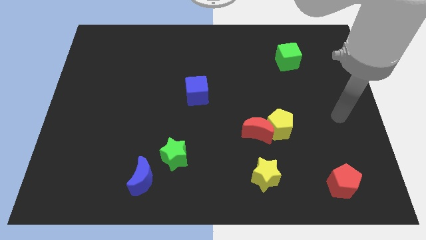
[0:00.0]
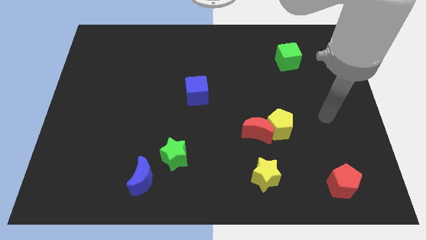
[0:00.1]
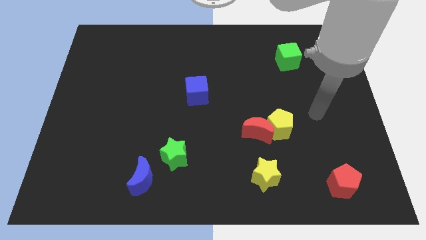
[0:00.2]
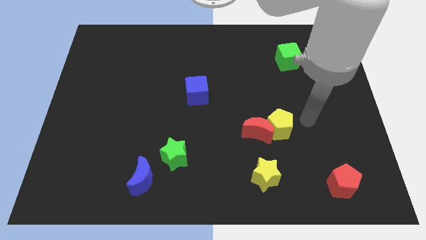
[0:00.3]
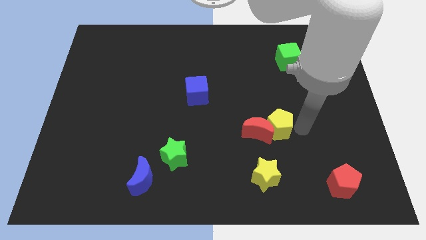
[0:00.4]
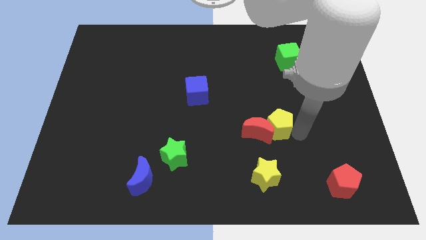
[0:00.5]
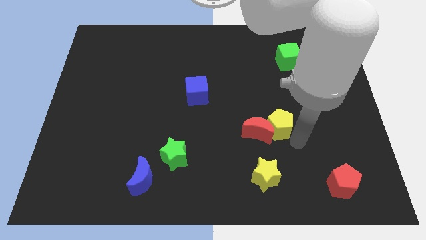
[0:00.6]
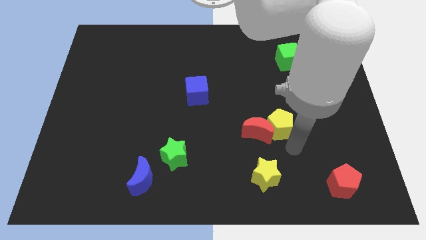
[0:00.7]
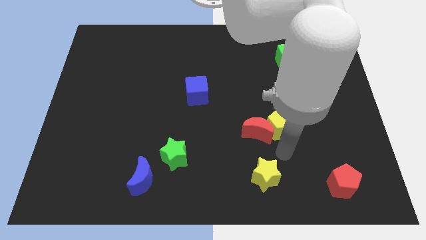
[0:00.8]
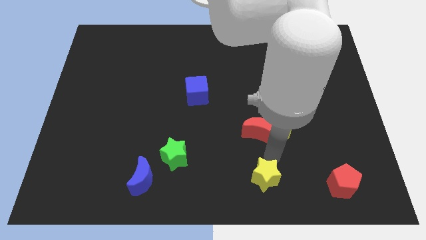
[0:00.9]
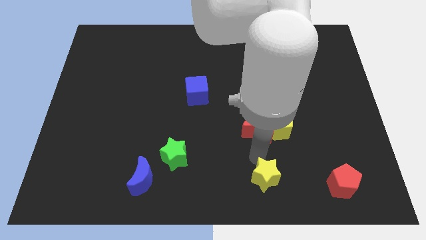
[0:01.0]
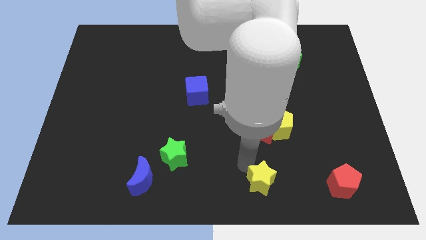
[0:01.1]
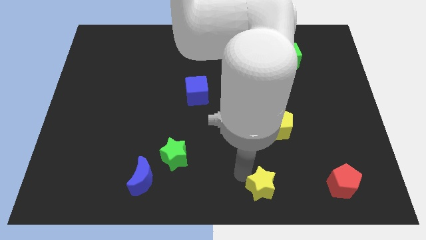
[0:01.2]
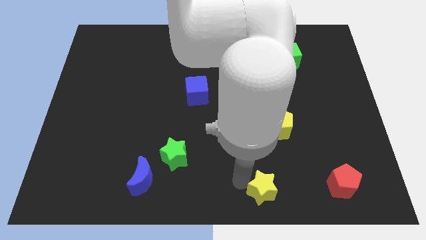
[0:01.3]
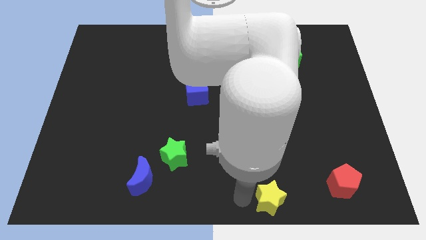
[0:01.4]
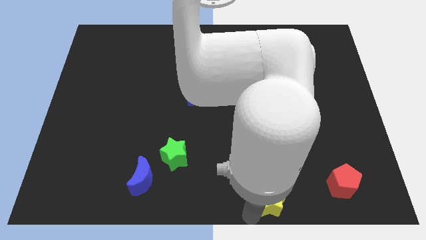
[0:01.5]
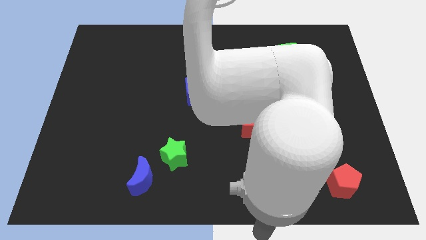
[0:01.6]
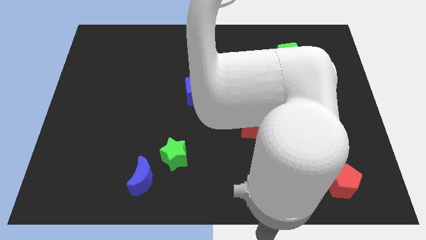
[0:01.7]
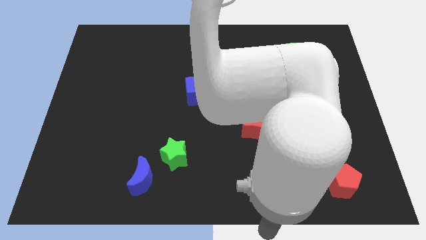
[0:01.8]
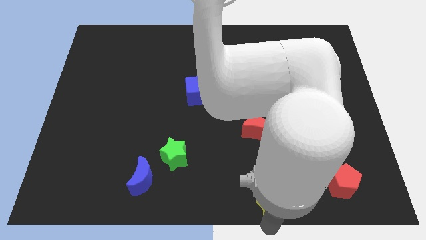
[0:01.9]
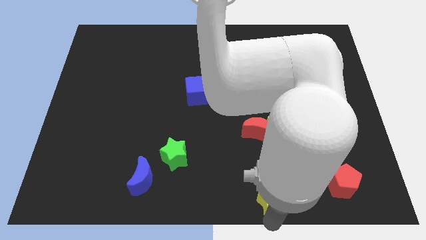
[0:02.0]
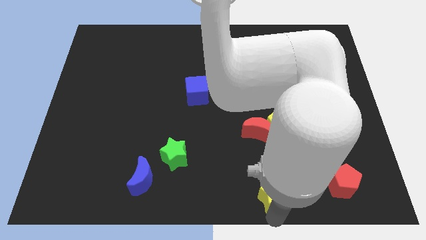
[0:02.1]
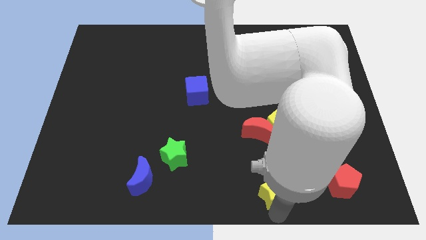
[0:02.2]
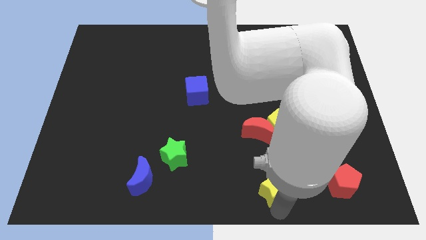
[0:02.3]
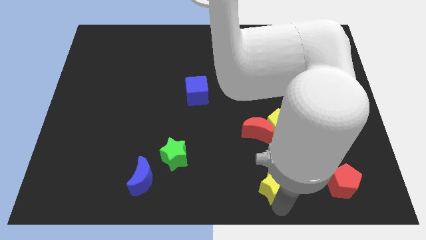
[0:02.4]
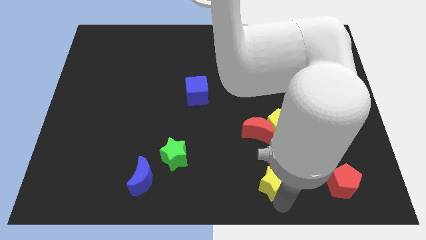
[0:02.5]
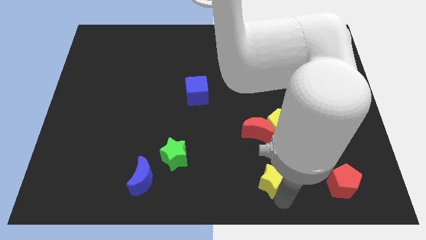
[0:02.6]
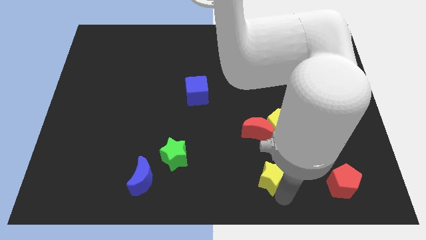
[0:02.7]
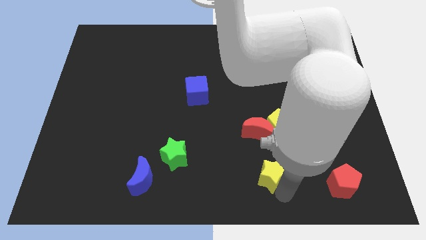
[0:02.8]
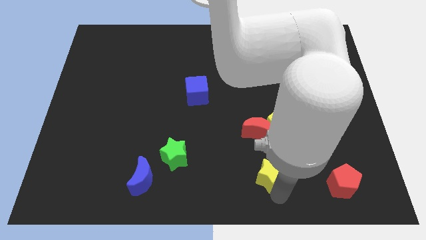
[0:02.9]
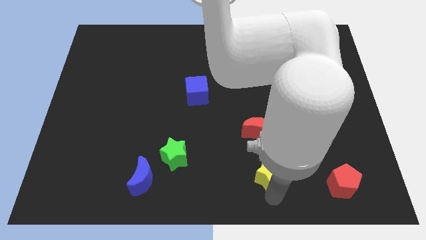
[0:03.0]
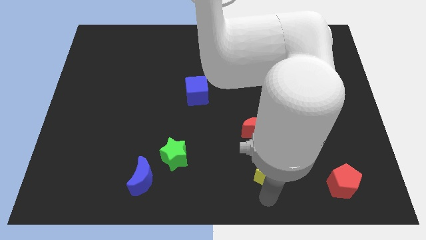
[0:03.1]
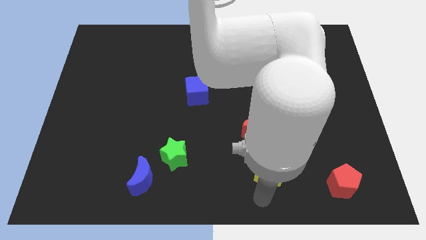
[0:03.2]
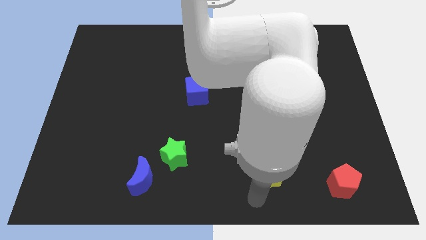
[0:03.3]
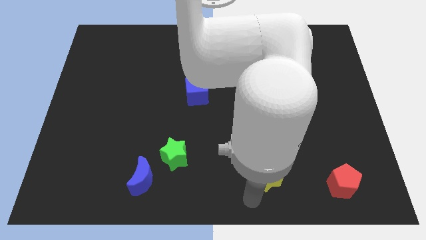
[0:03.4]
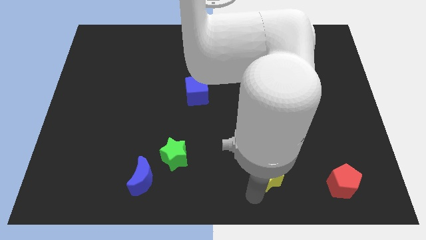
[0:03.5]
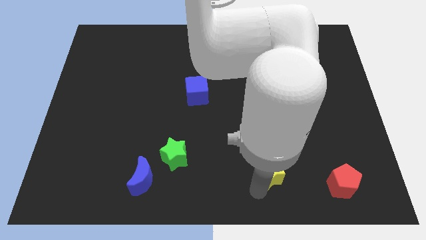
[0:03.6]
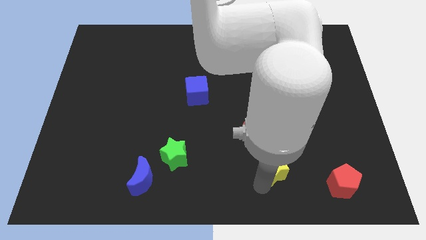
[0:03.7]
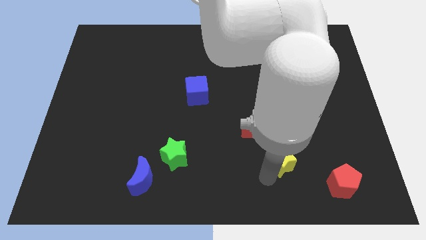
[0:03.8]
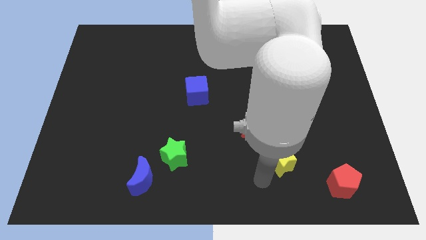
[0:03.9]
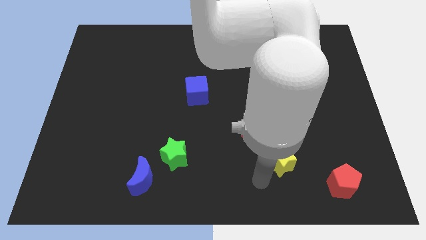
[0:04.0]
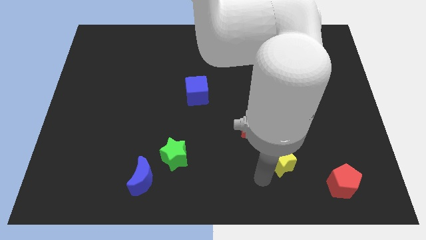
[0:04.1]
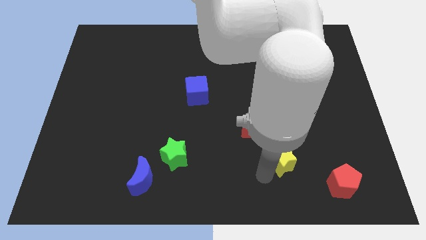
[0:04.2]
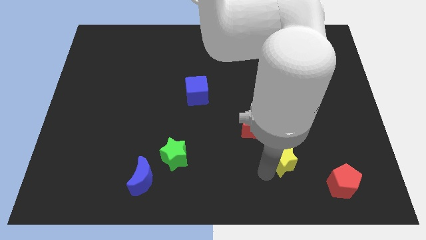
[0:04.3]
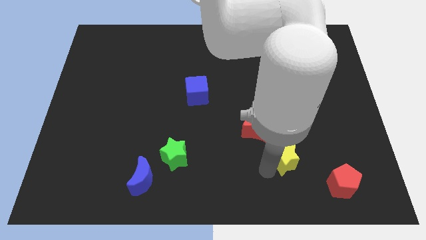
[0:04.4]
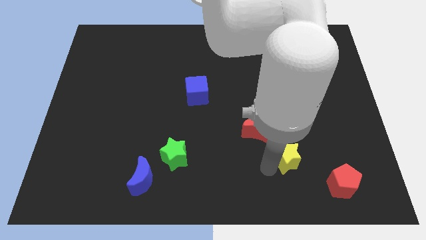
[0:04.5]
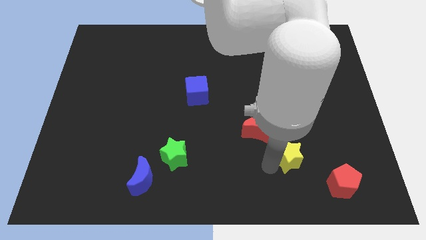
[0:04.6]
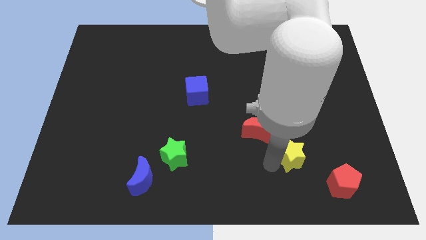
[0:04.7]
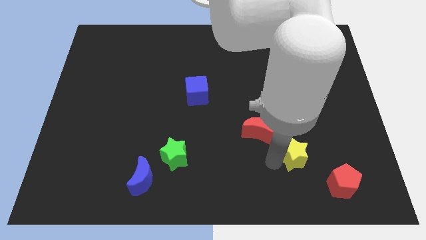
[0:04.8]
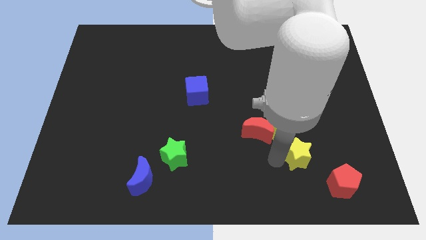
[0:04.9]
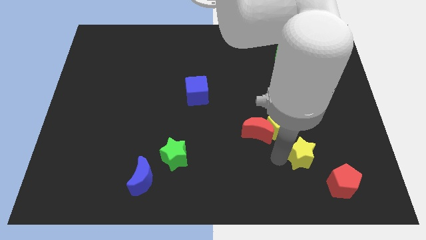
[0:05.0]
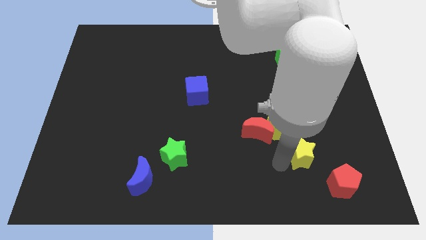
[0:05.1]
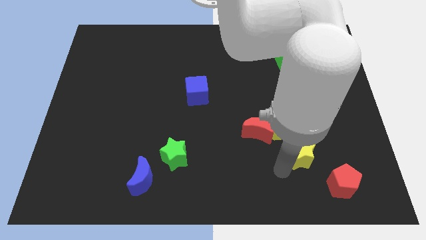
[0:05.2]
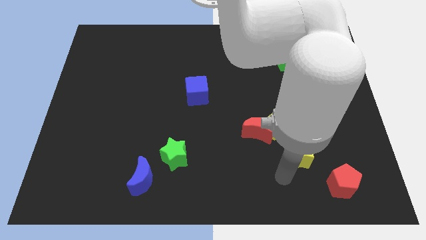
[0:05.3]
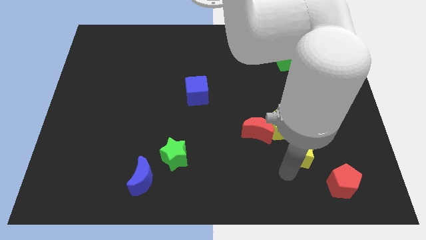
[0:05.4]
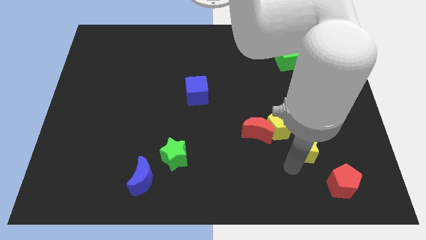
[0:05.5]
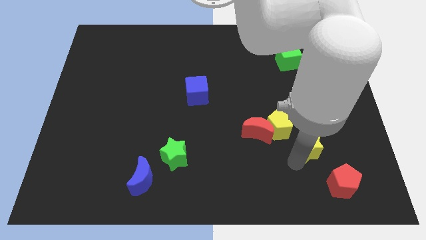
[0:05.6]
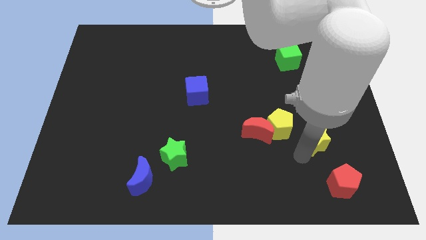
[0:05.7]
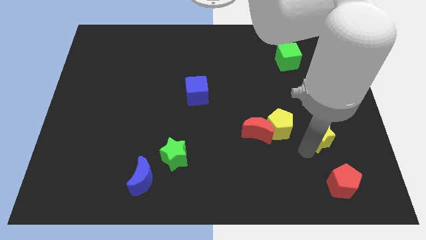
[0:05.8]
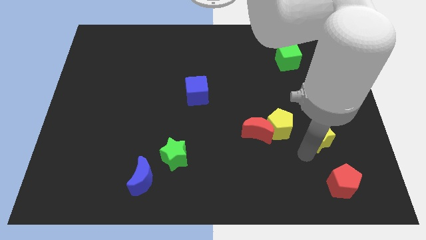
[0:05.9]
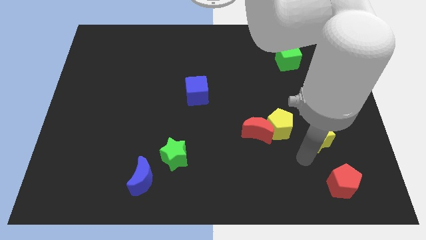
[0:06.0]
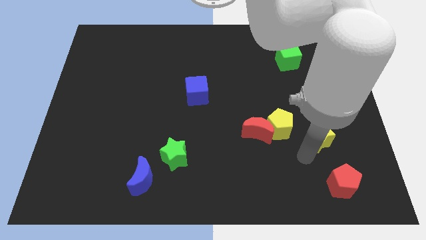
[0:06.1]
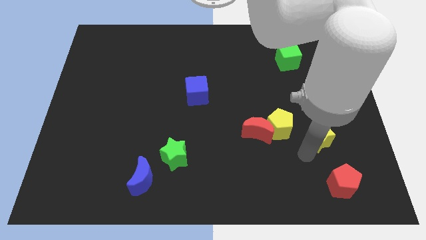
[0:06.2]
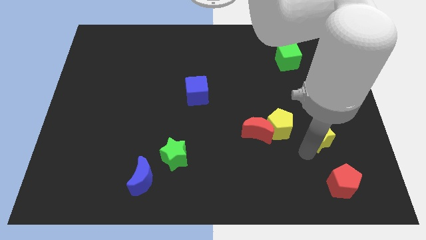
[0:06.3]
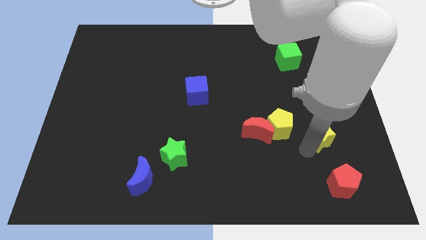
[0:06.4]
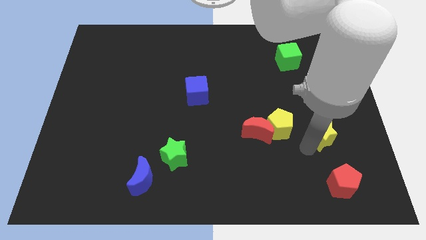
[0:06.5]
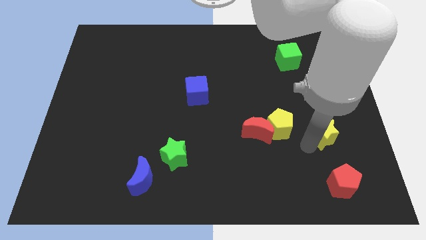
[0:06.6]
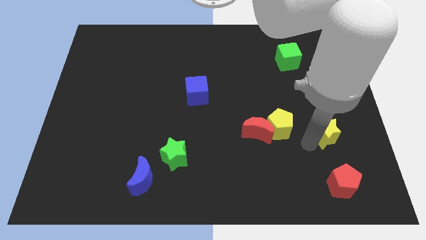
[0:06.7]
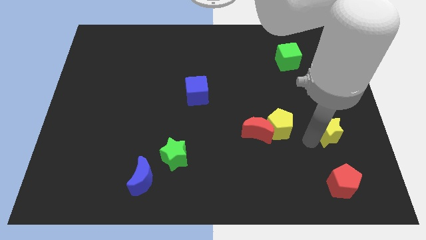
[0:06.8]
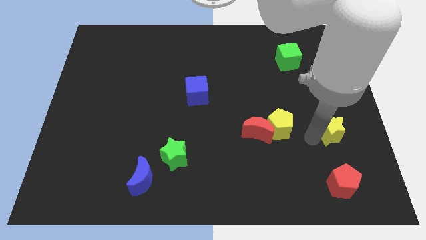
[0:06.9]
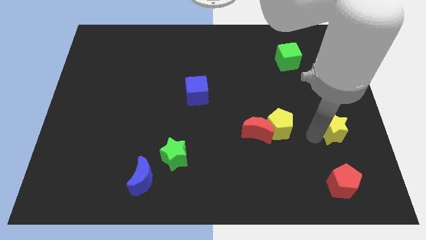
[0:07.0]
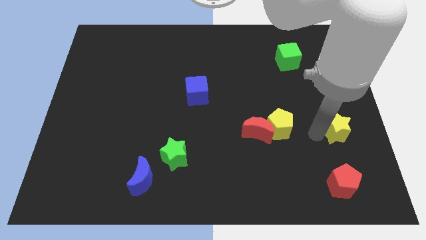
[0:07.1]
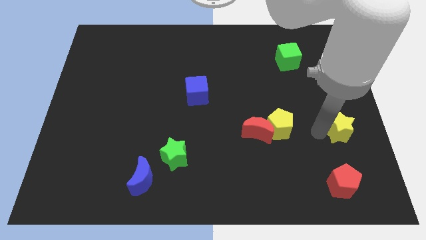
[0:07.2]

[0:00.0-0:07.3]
put the yellow star to the right side

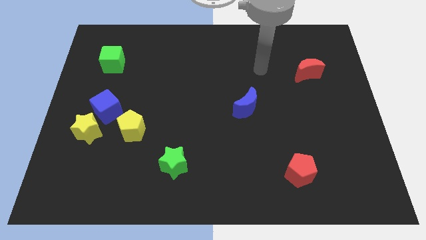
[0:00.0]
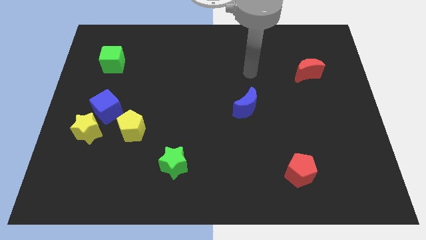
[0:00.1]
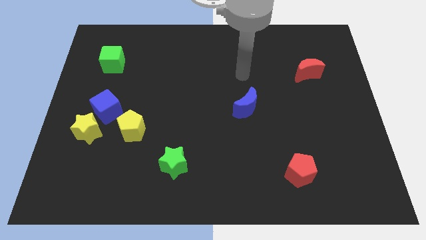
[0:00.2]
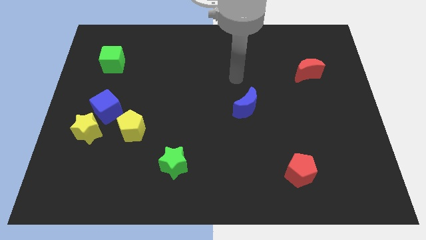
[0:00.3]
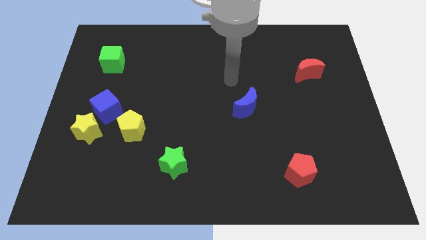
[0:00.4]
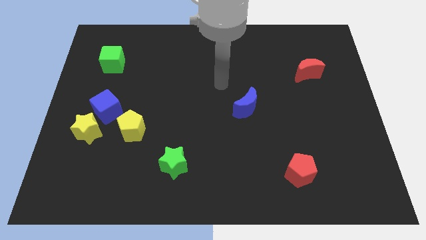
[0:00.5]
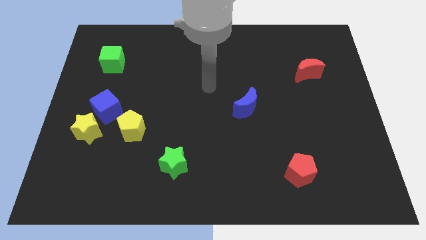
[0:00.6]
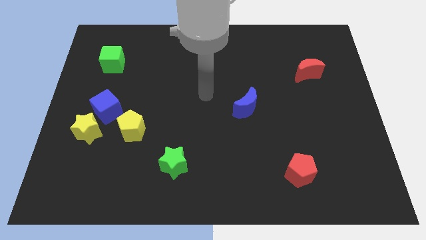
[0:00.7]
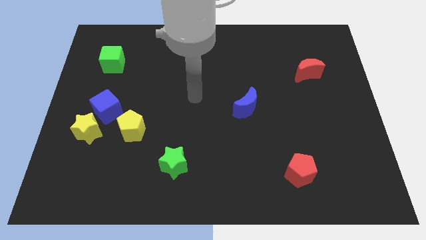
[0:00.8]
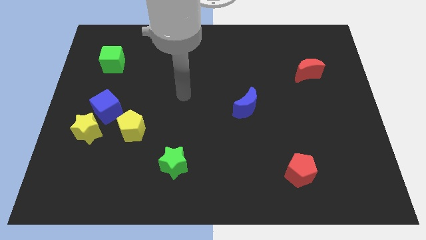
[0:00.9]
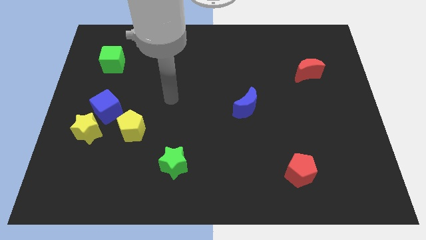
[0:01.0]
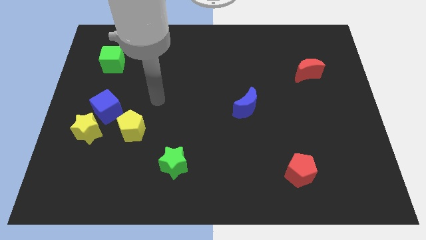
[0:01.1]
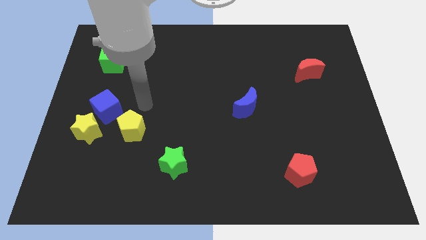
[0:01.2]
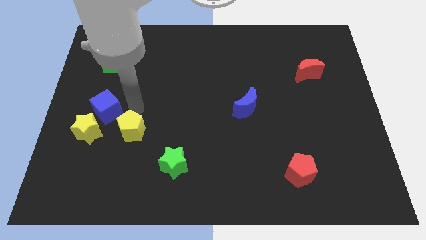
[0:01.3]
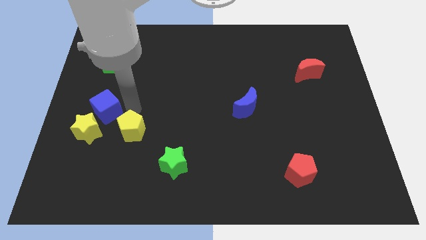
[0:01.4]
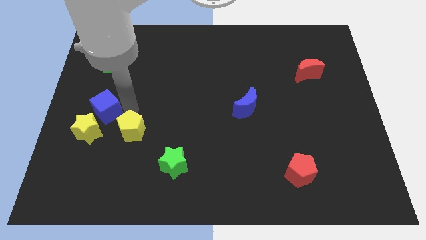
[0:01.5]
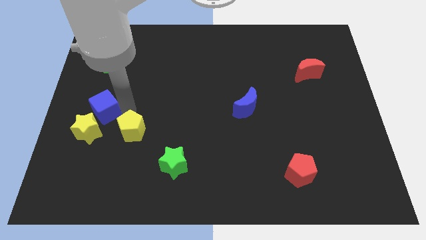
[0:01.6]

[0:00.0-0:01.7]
slide the blue cube to the left side of the board
